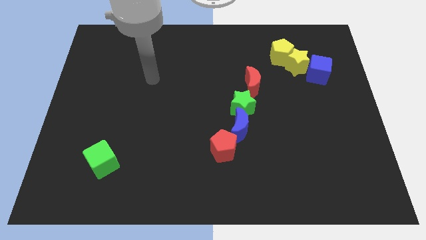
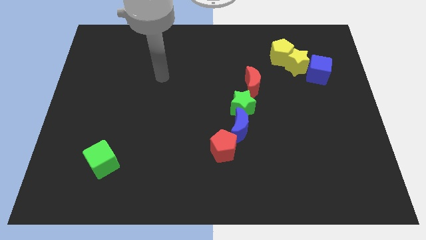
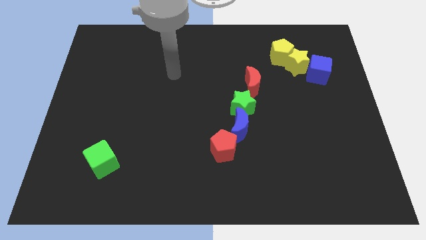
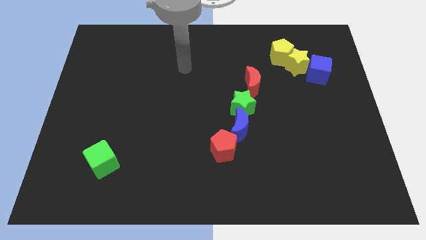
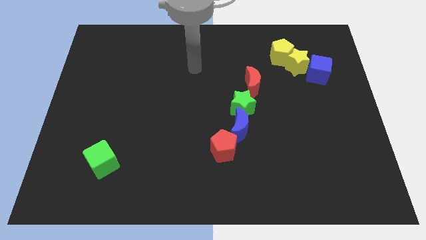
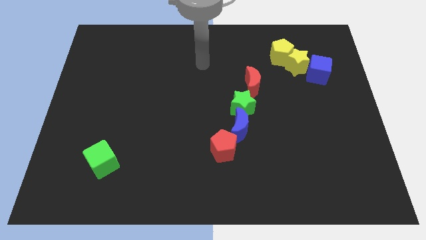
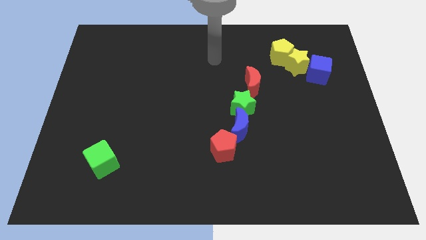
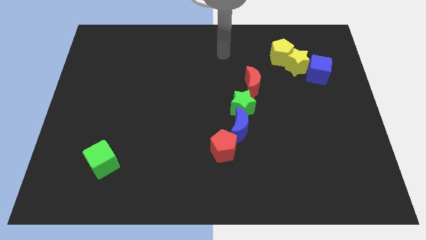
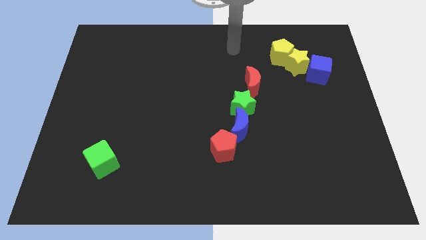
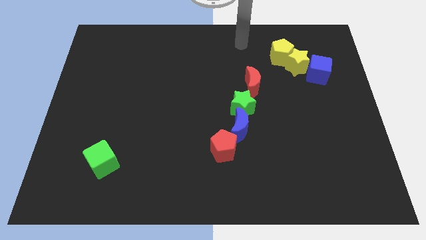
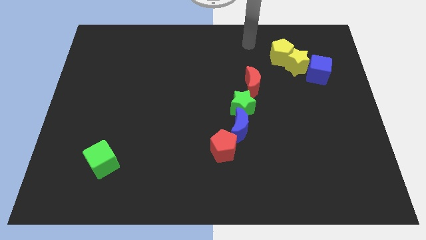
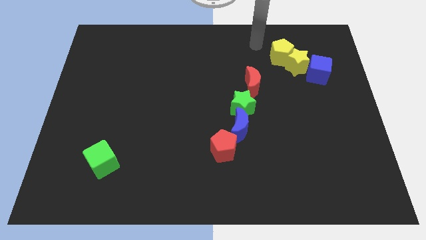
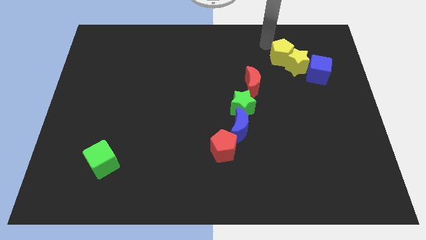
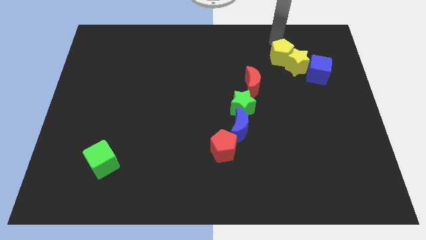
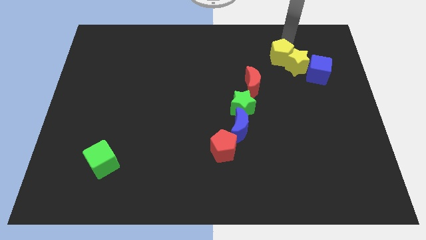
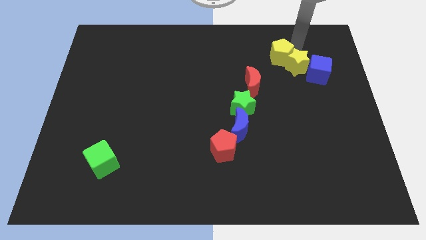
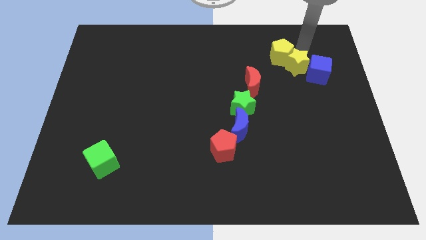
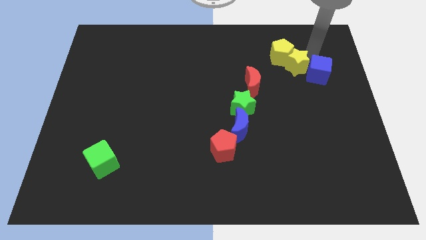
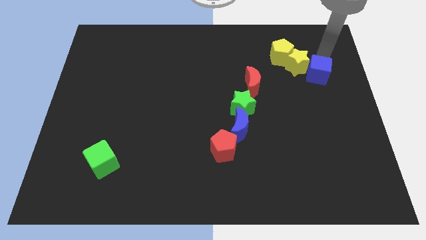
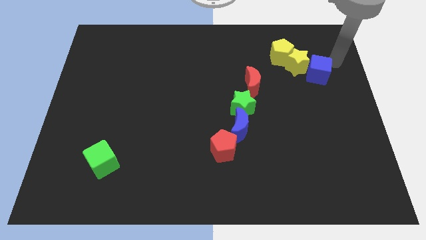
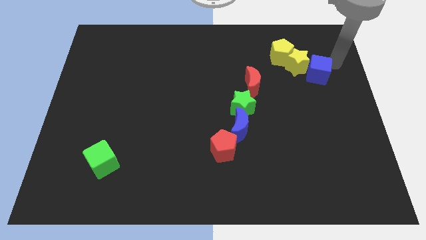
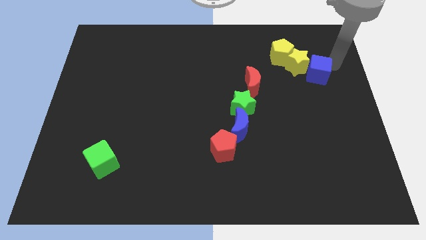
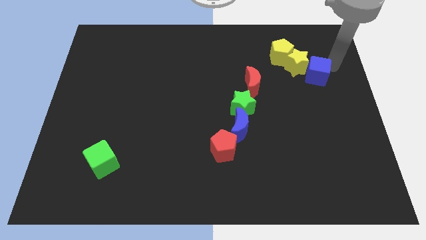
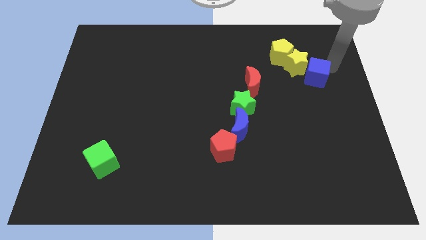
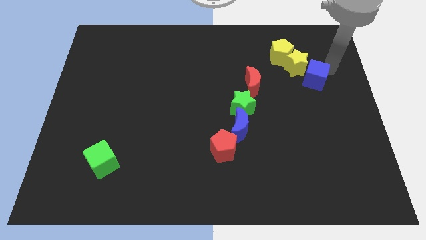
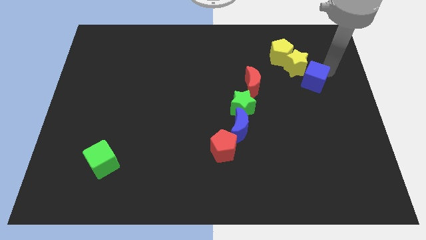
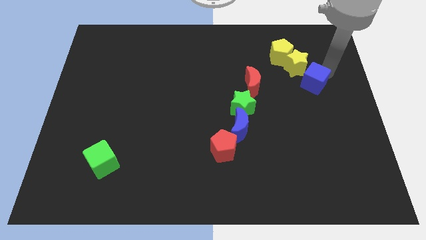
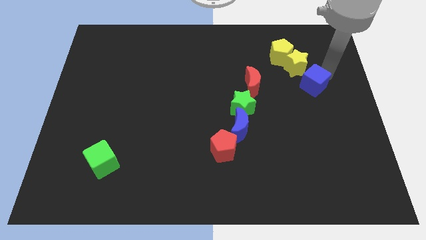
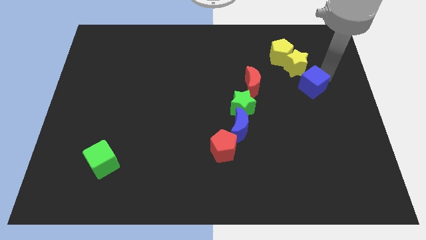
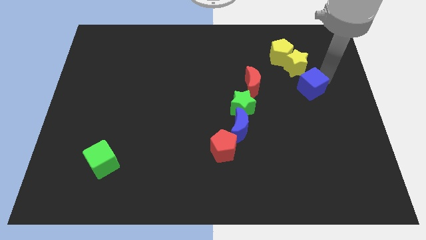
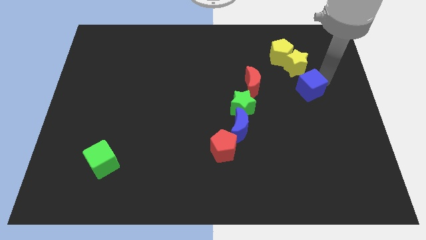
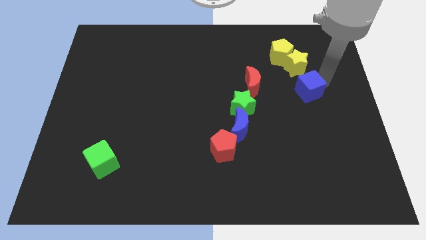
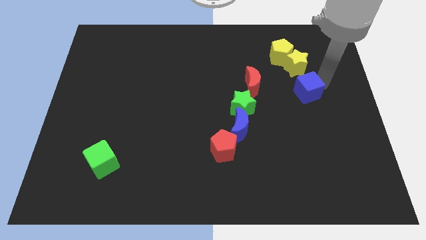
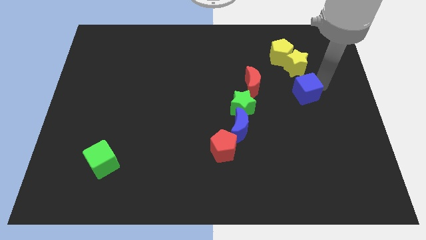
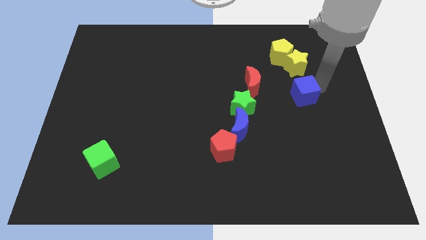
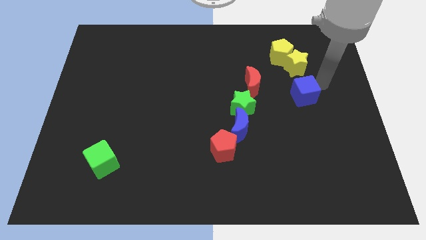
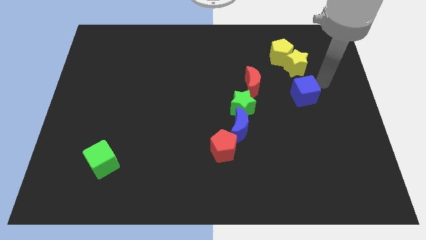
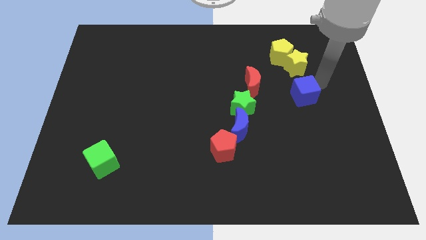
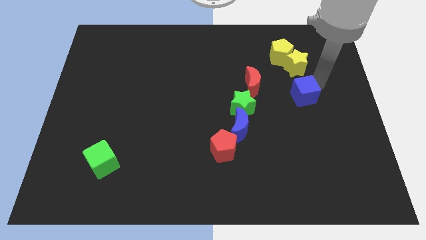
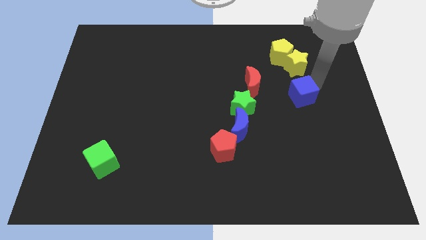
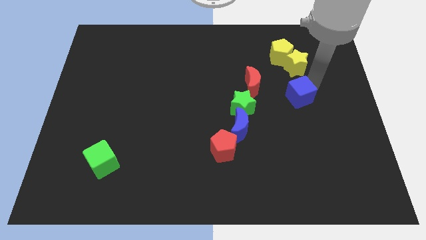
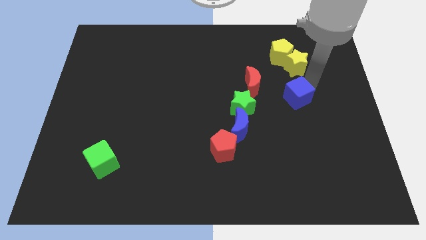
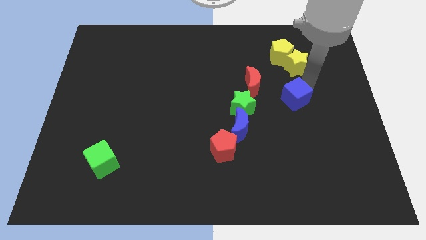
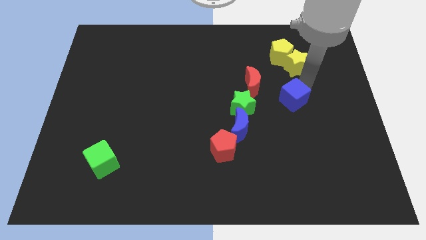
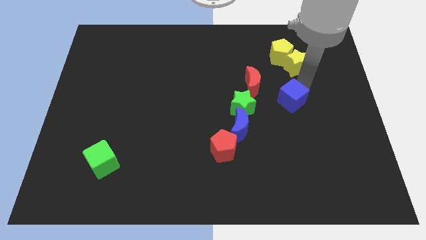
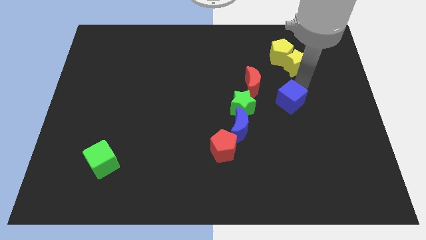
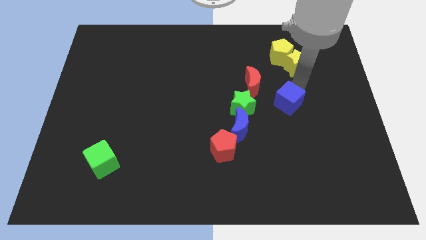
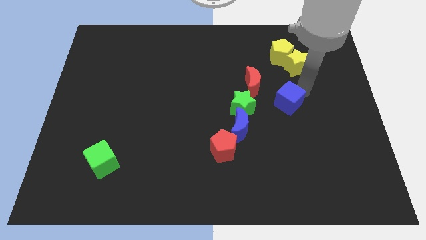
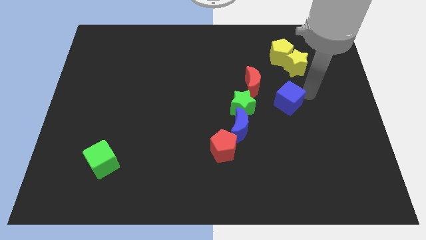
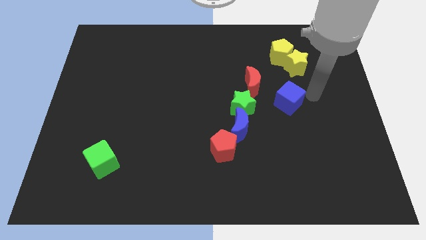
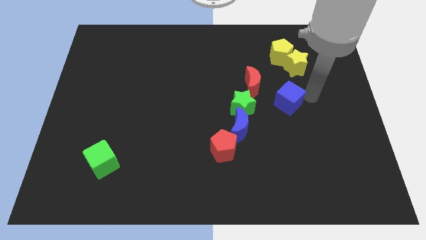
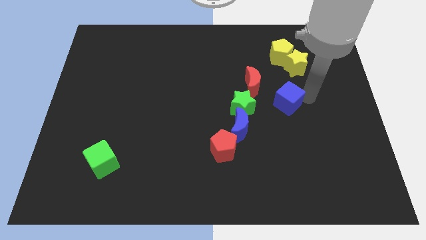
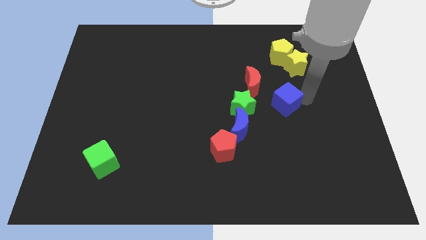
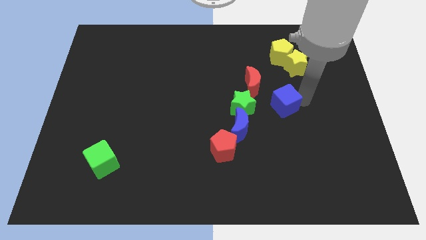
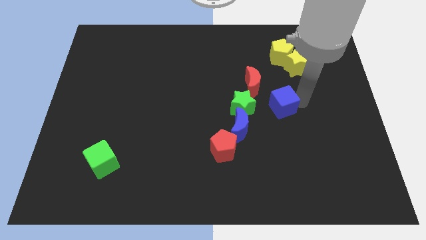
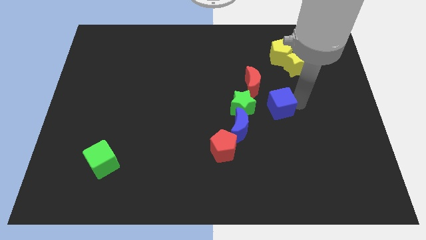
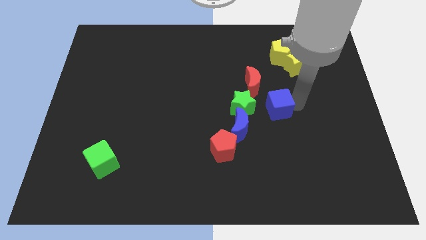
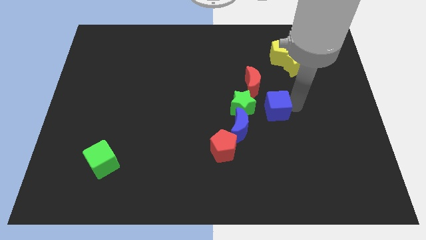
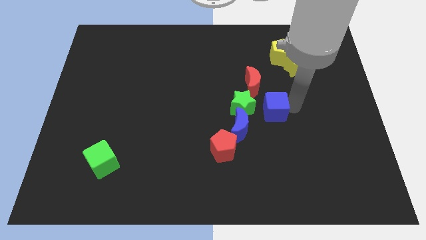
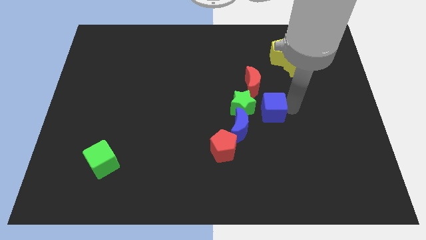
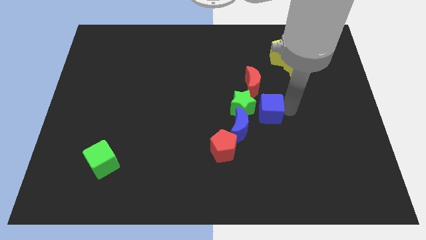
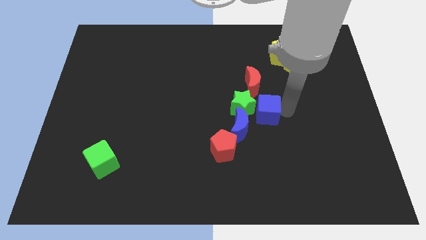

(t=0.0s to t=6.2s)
put the blue cube to the green star

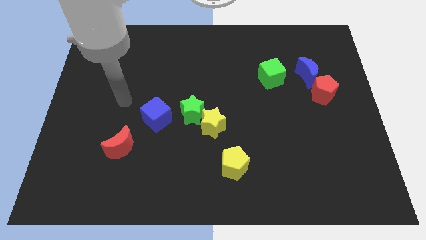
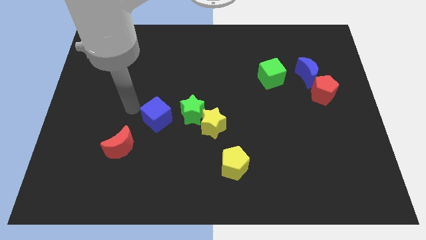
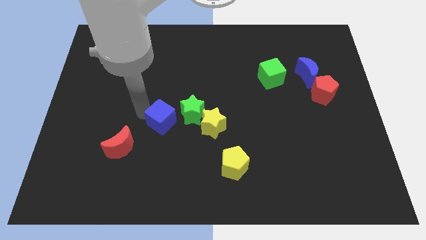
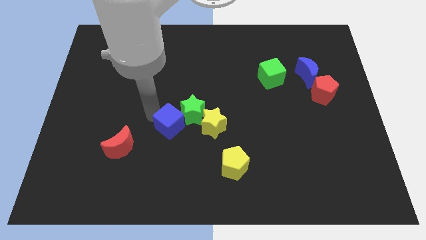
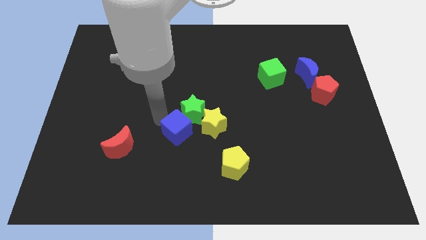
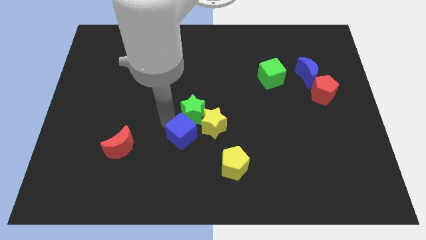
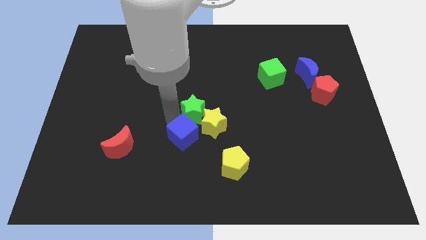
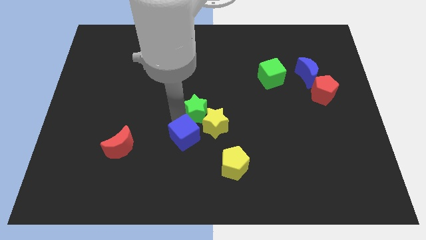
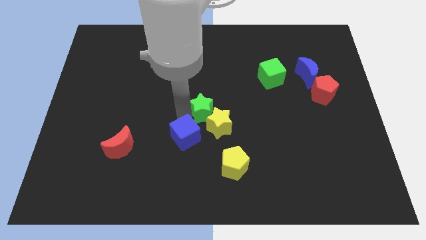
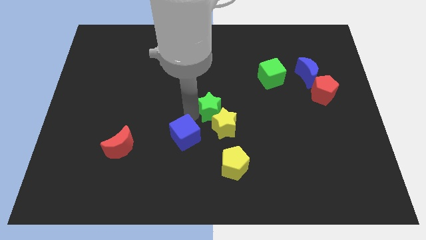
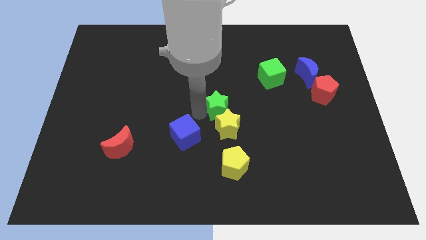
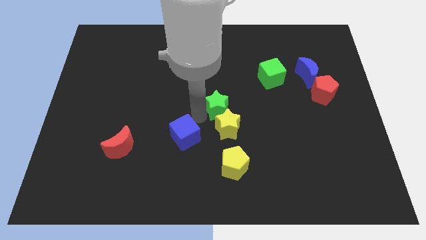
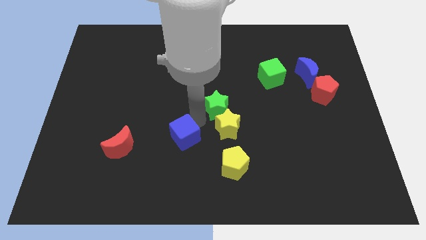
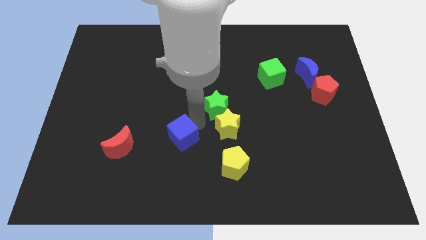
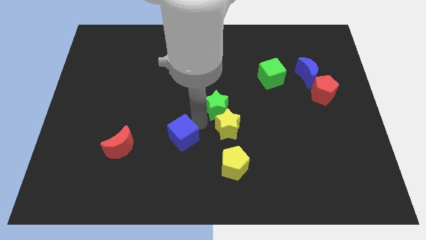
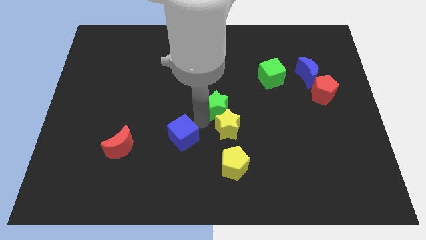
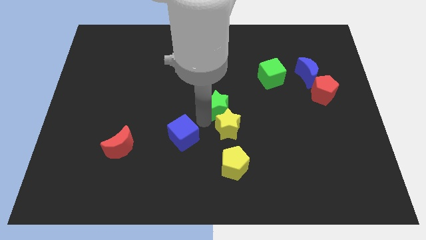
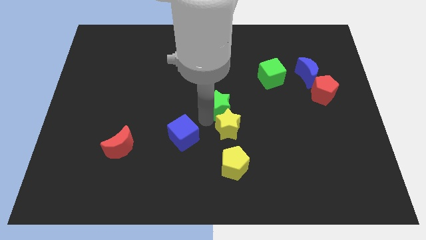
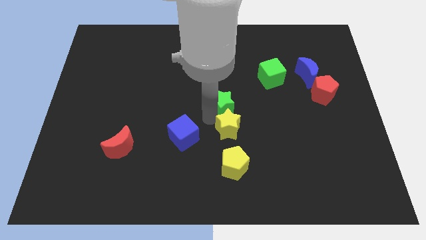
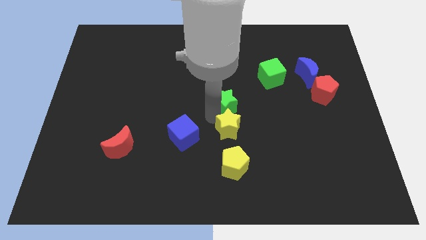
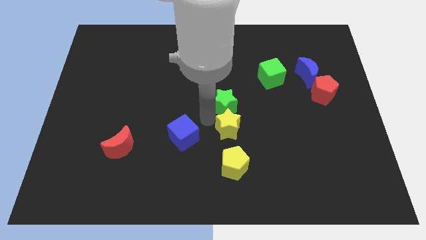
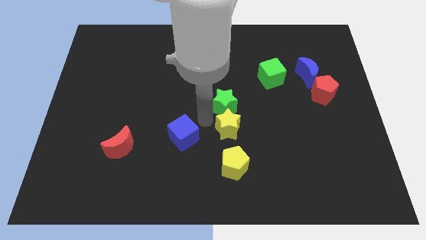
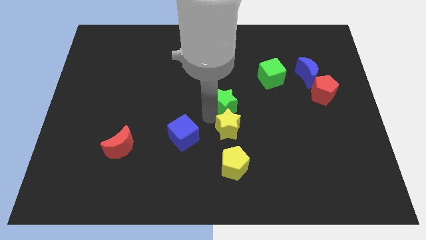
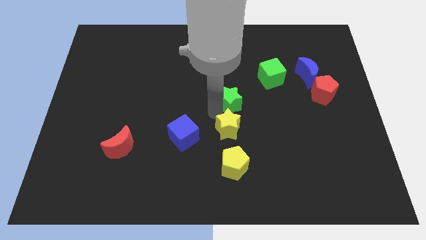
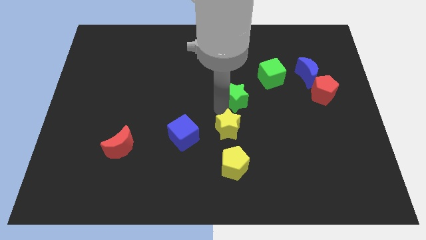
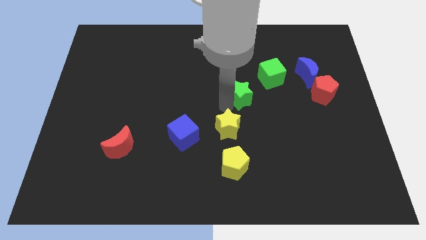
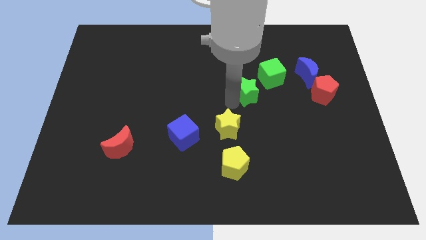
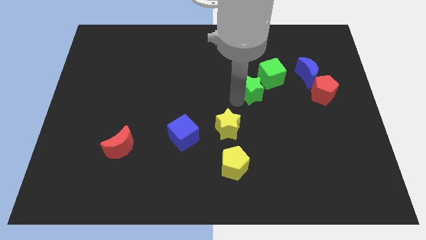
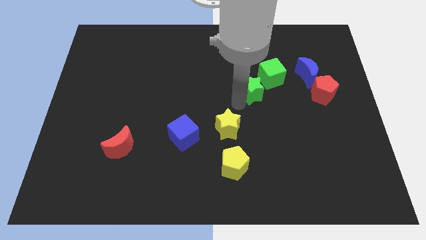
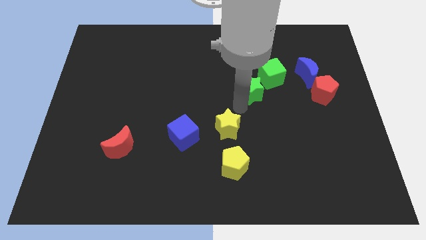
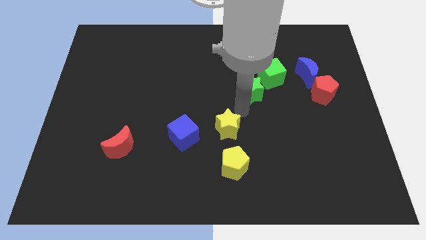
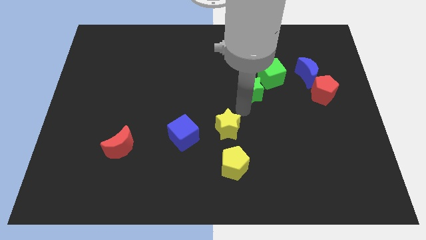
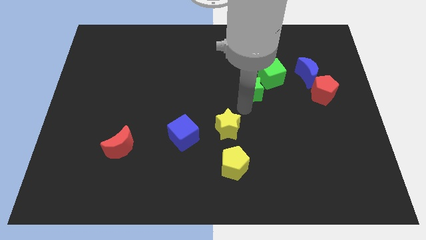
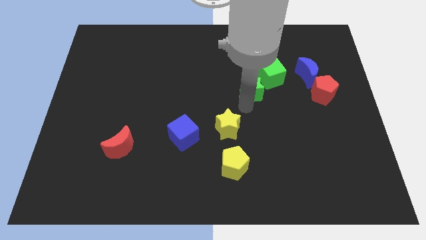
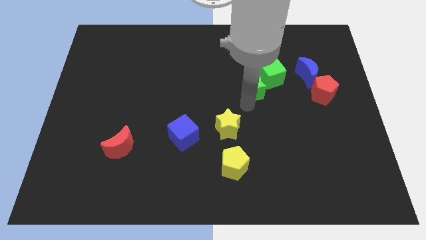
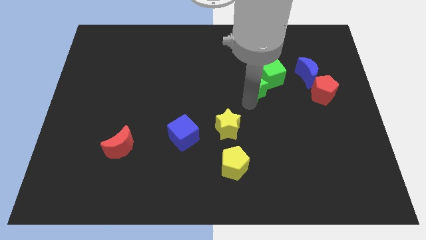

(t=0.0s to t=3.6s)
put the green star towards the green cube
